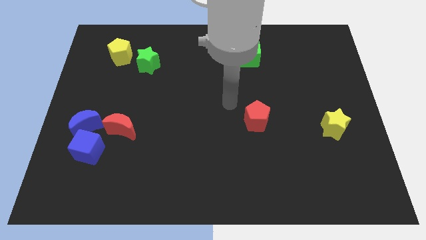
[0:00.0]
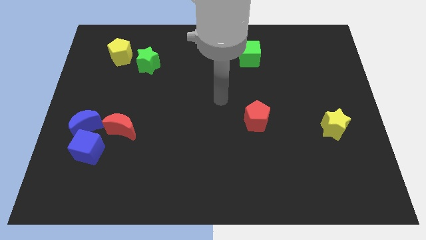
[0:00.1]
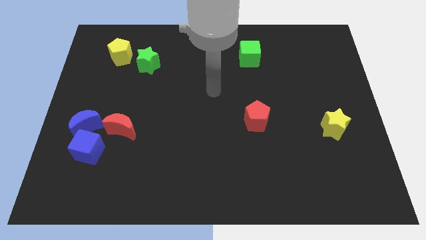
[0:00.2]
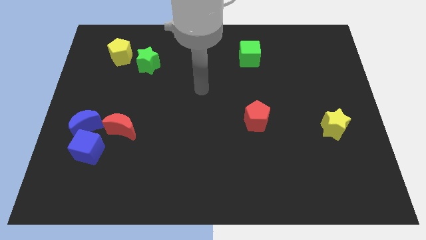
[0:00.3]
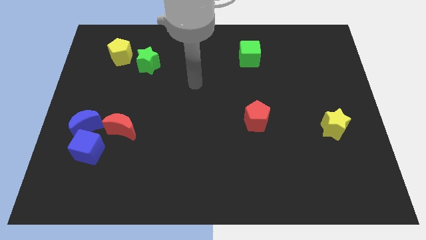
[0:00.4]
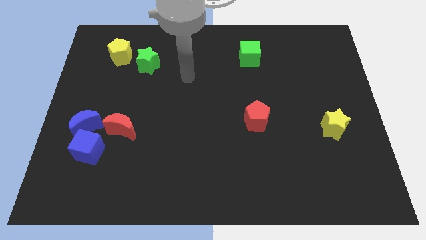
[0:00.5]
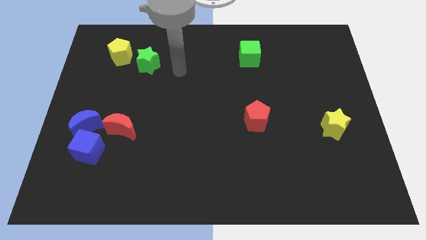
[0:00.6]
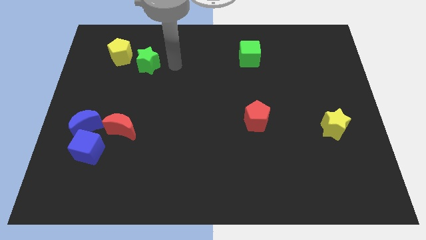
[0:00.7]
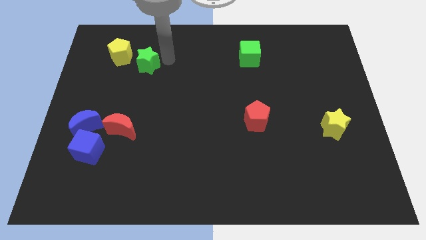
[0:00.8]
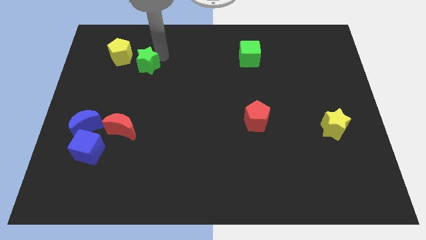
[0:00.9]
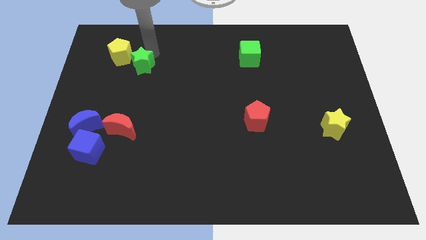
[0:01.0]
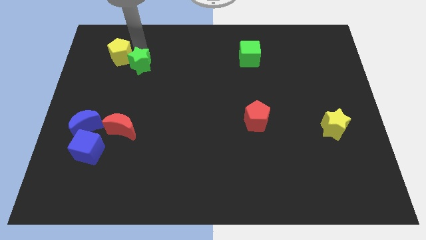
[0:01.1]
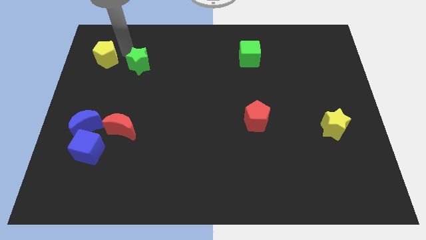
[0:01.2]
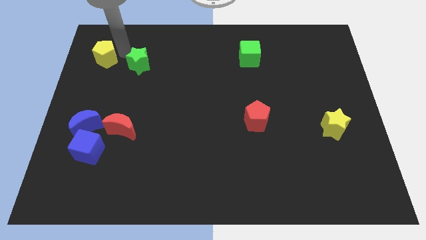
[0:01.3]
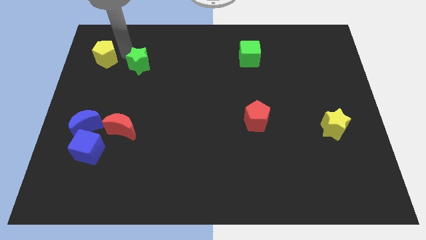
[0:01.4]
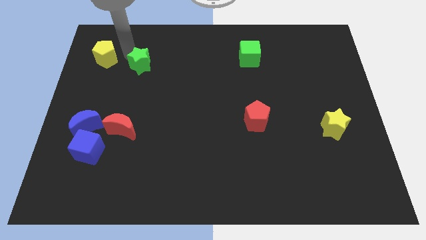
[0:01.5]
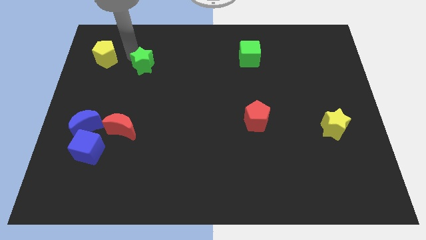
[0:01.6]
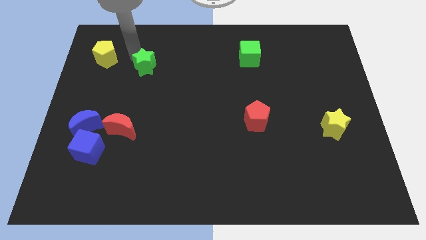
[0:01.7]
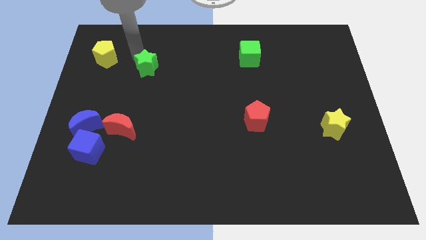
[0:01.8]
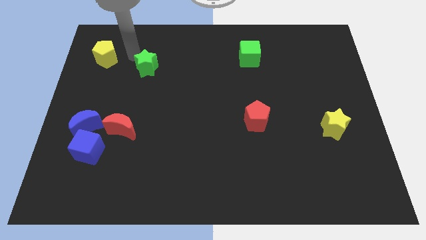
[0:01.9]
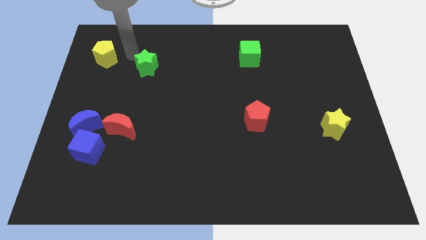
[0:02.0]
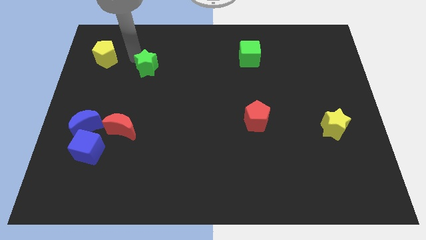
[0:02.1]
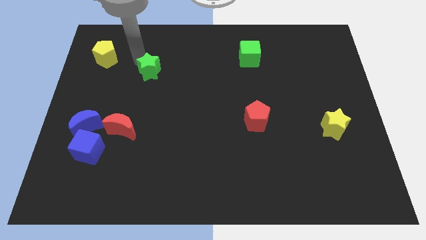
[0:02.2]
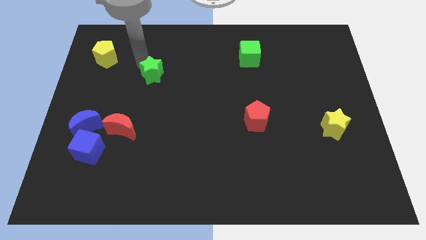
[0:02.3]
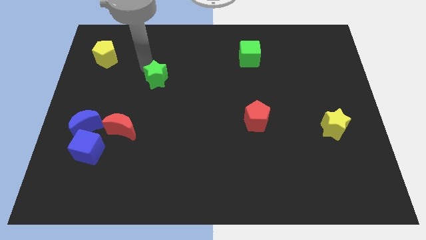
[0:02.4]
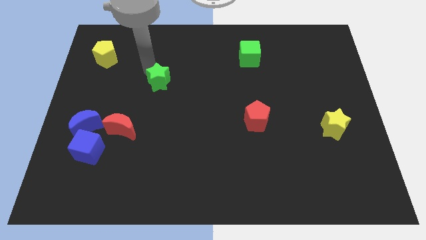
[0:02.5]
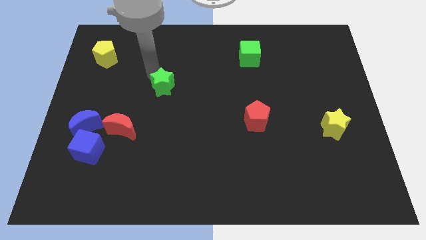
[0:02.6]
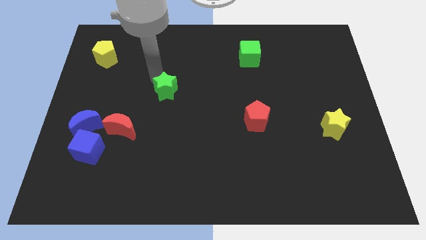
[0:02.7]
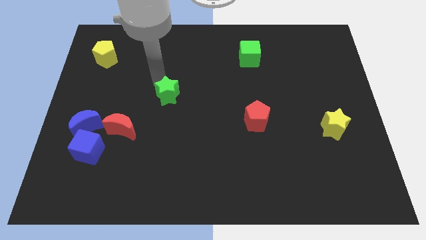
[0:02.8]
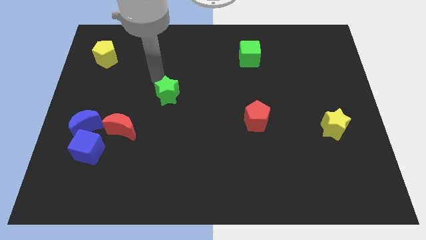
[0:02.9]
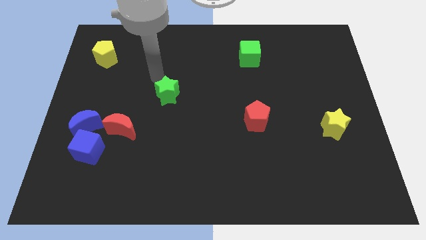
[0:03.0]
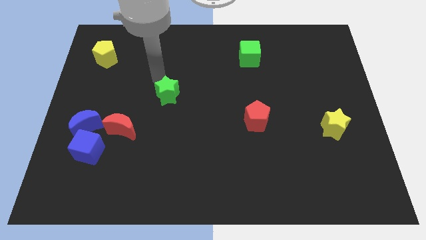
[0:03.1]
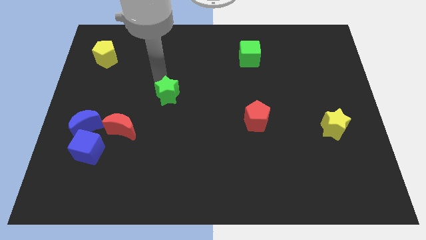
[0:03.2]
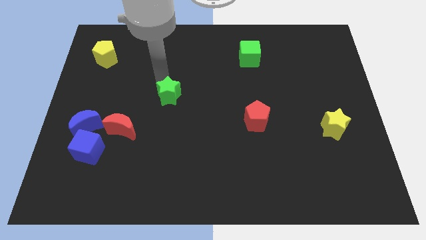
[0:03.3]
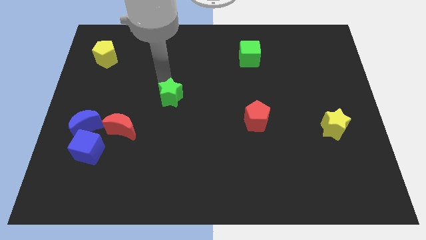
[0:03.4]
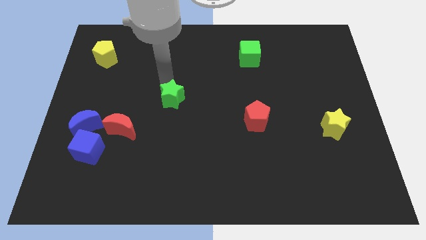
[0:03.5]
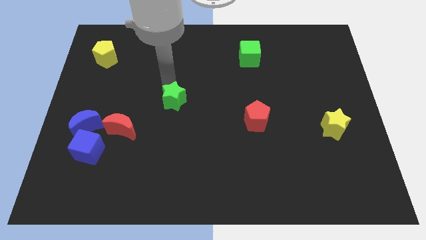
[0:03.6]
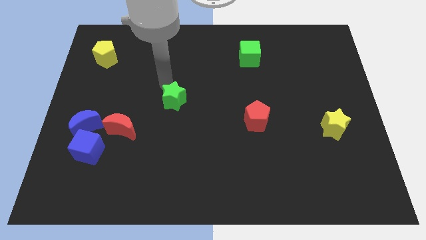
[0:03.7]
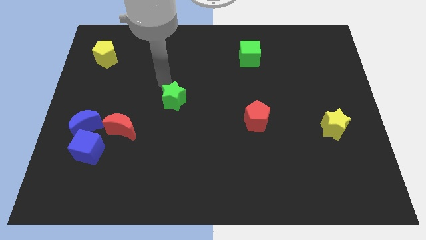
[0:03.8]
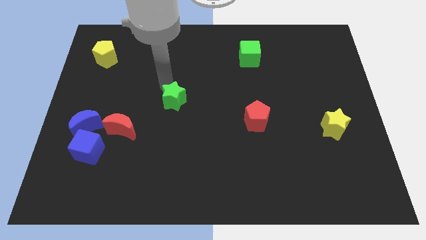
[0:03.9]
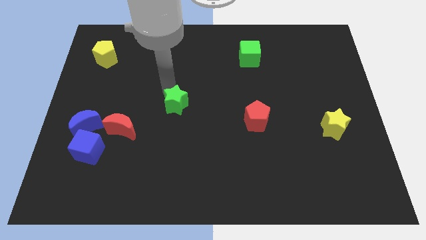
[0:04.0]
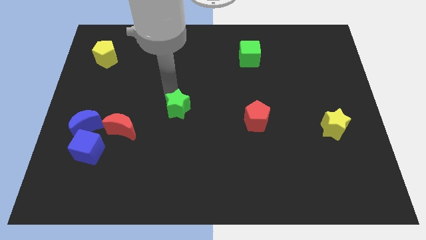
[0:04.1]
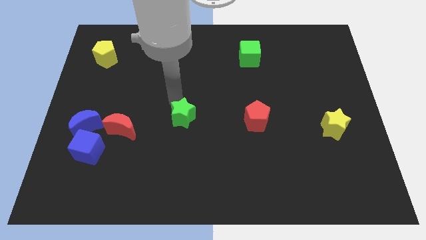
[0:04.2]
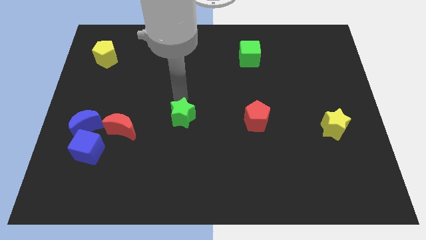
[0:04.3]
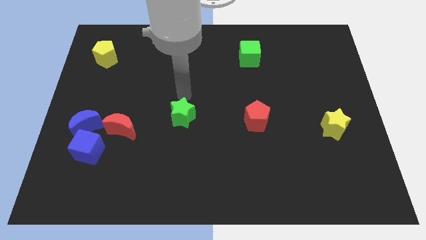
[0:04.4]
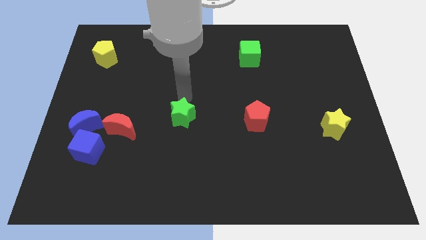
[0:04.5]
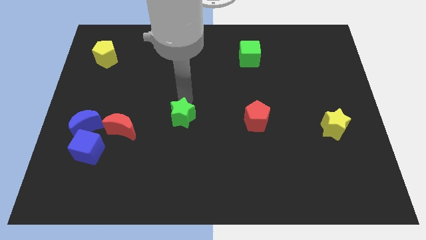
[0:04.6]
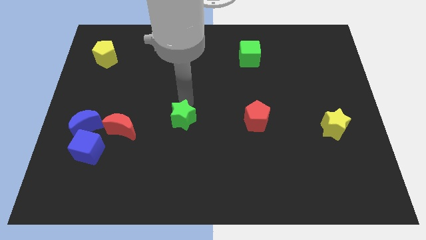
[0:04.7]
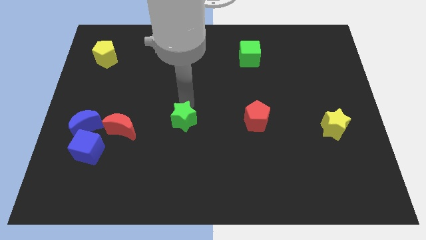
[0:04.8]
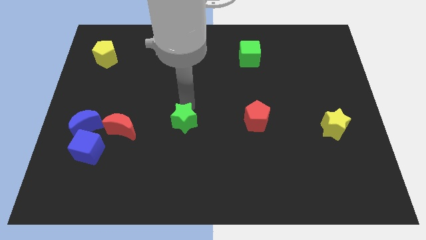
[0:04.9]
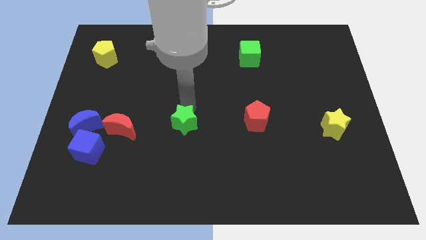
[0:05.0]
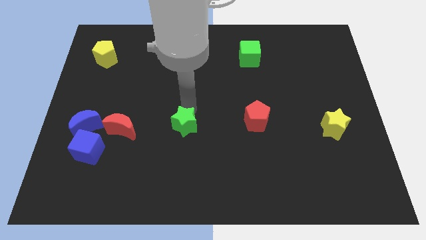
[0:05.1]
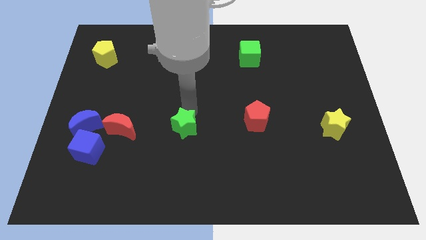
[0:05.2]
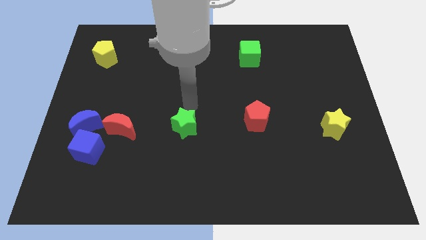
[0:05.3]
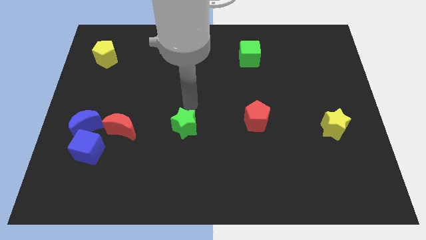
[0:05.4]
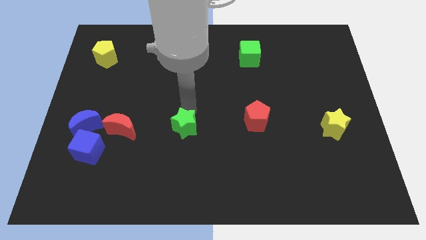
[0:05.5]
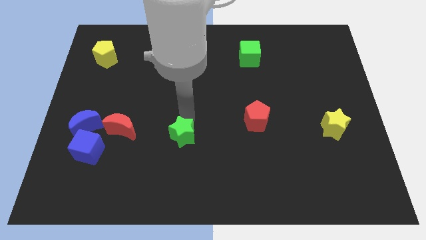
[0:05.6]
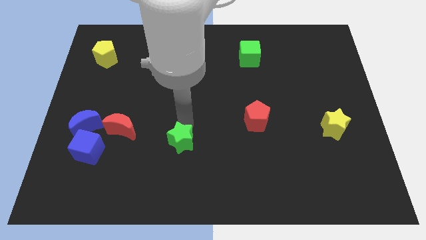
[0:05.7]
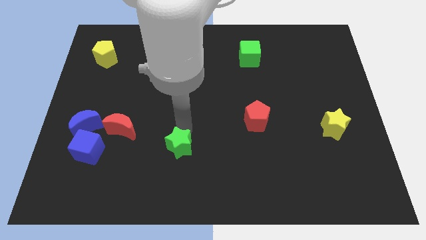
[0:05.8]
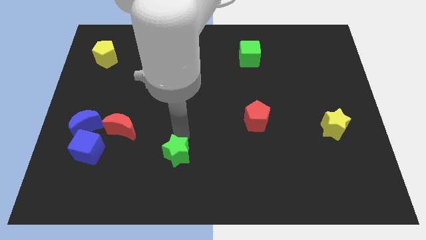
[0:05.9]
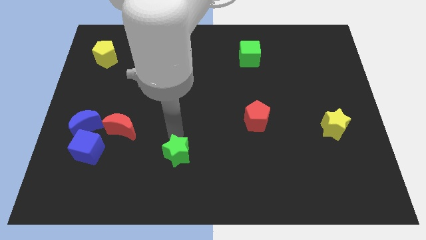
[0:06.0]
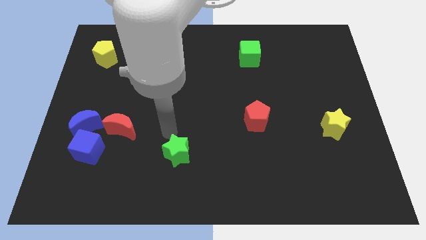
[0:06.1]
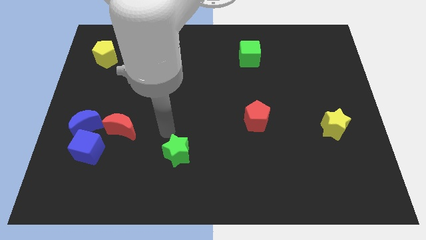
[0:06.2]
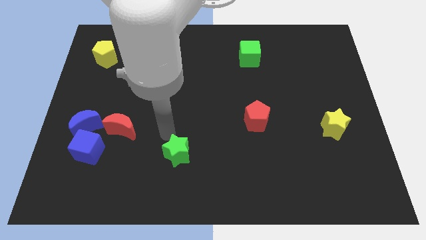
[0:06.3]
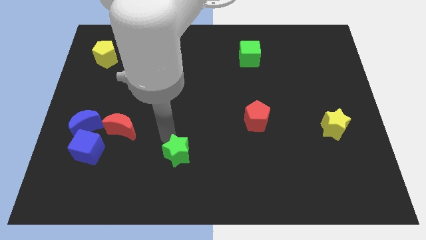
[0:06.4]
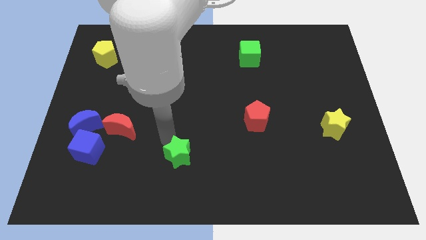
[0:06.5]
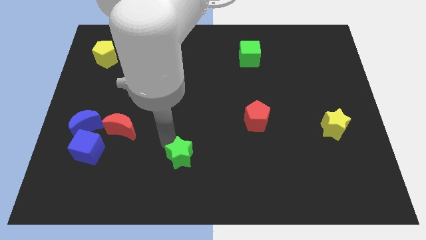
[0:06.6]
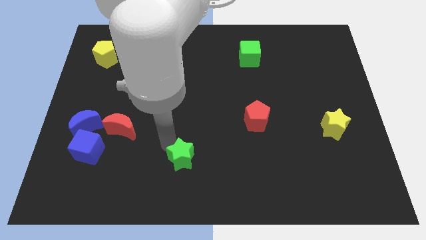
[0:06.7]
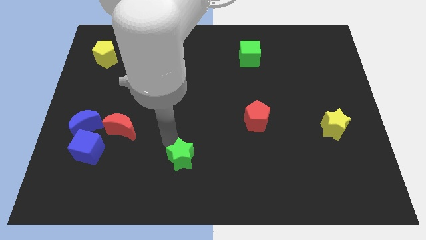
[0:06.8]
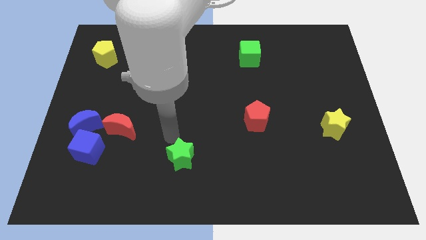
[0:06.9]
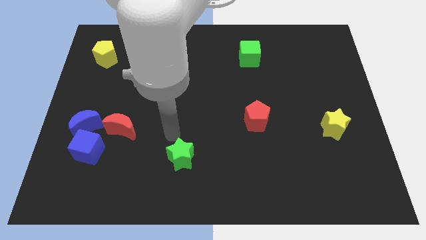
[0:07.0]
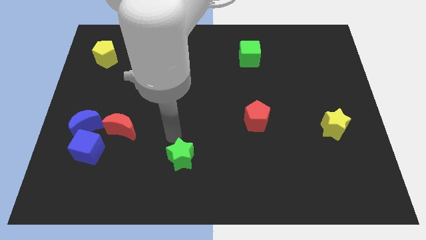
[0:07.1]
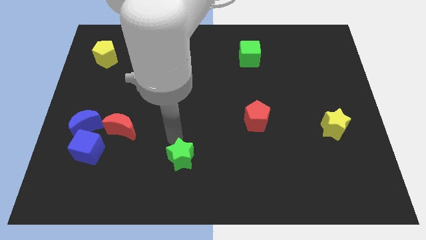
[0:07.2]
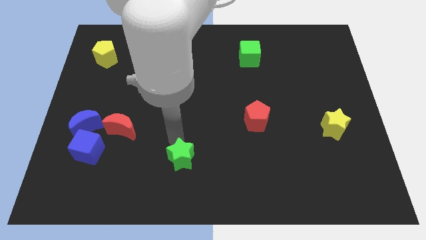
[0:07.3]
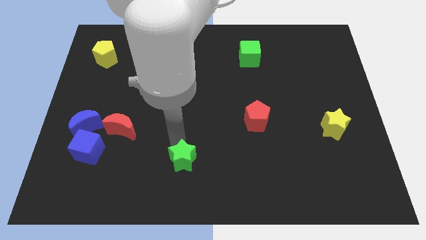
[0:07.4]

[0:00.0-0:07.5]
slide the green star to the bottom

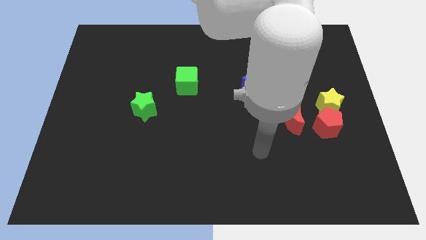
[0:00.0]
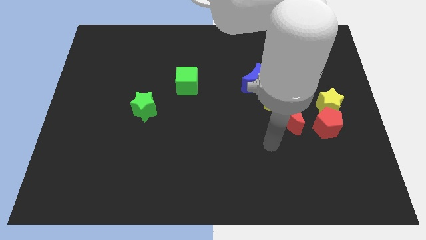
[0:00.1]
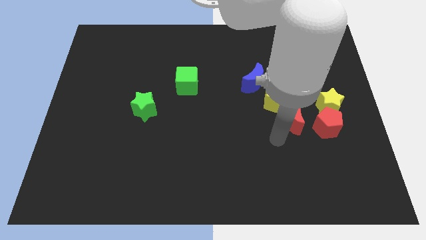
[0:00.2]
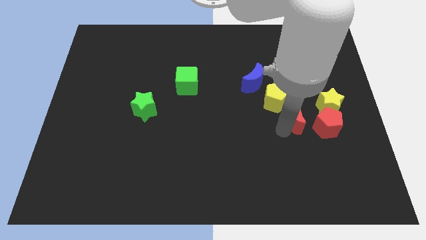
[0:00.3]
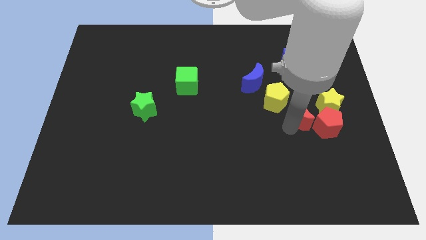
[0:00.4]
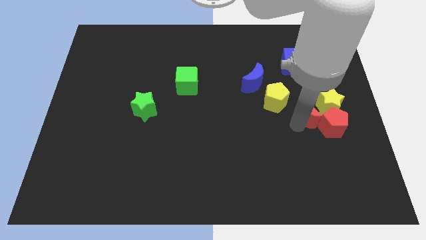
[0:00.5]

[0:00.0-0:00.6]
push the red pentagon to the center right
